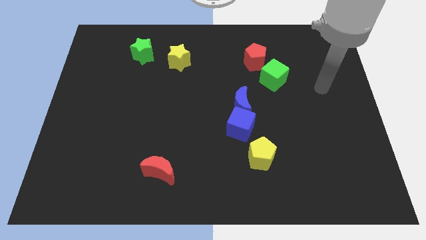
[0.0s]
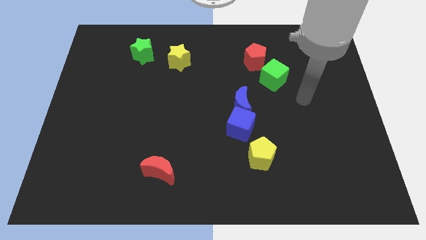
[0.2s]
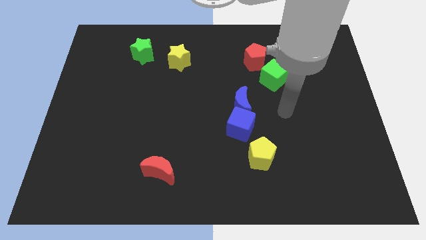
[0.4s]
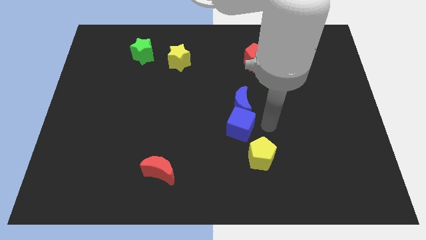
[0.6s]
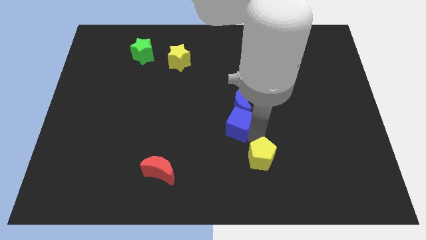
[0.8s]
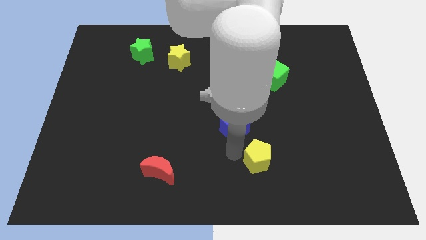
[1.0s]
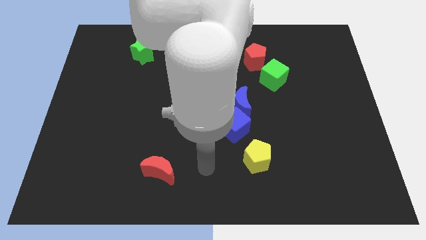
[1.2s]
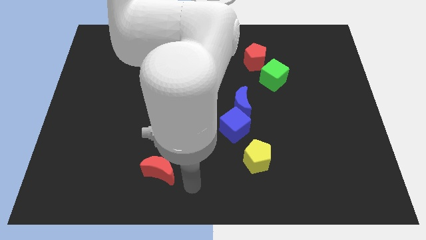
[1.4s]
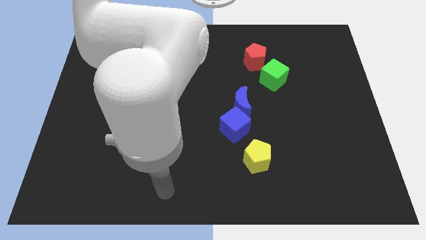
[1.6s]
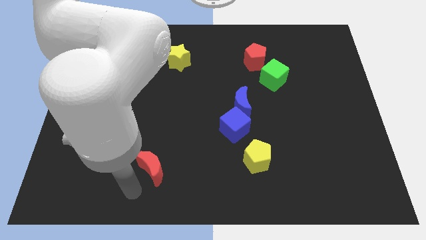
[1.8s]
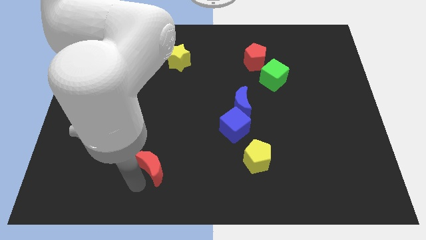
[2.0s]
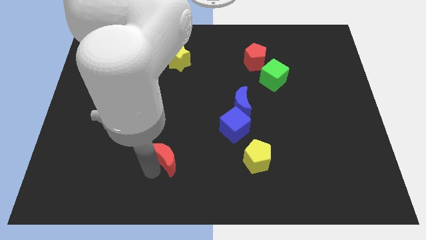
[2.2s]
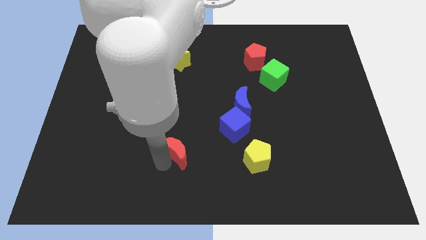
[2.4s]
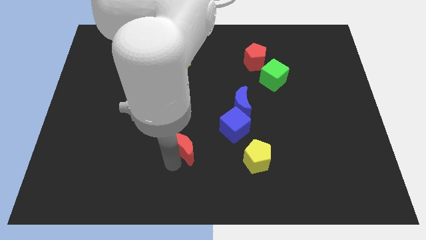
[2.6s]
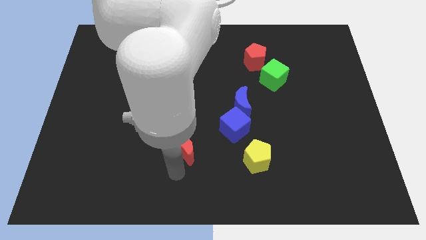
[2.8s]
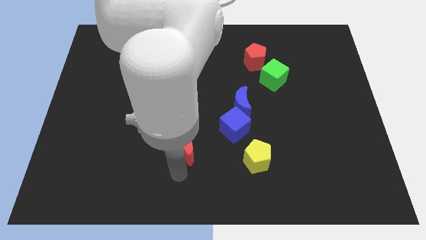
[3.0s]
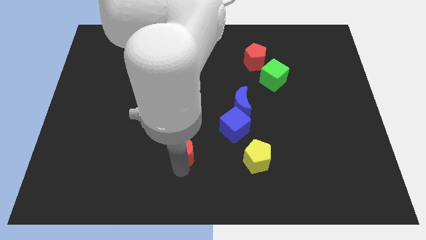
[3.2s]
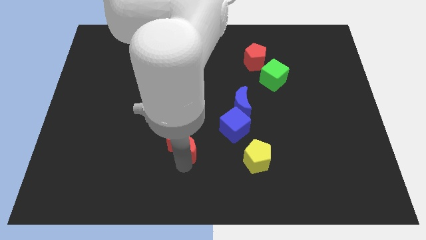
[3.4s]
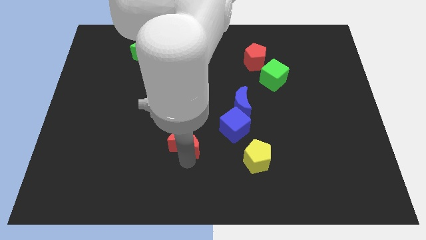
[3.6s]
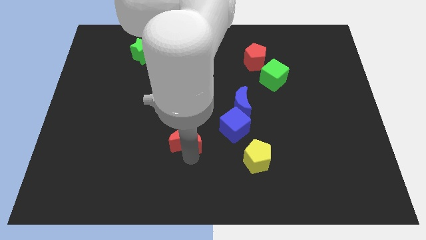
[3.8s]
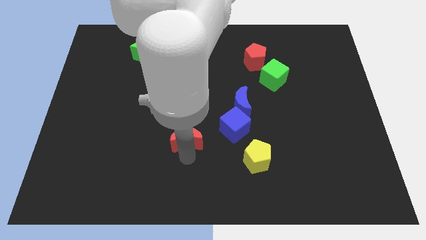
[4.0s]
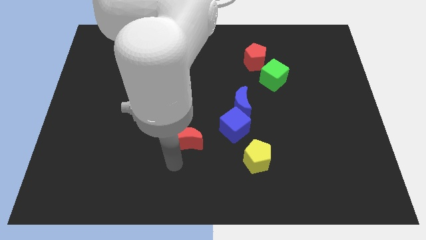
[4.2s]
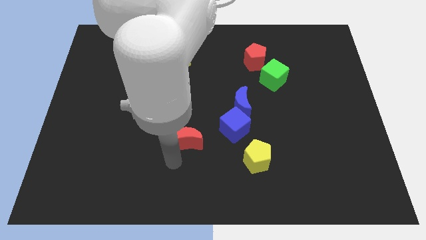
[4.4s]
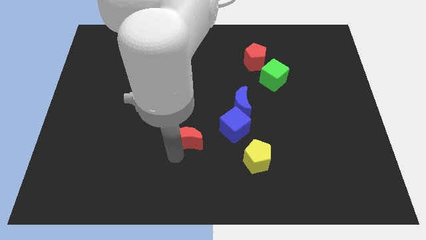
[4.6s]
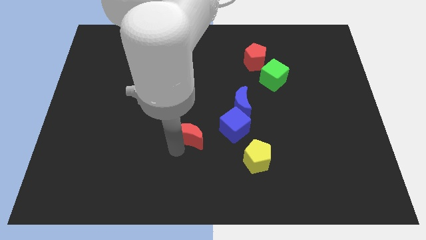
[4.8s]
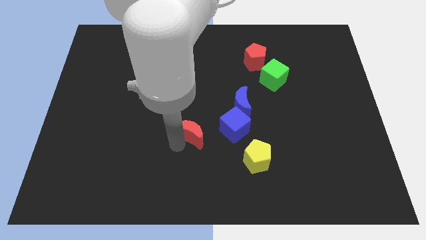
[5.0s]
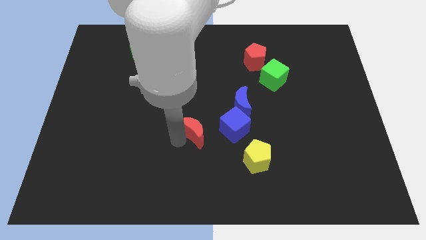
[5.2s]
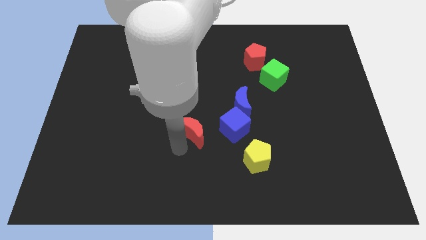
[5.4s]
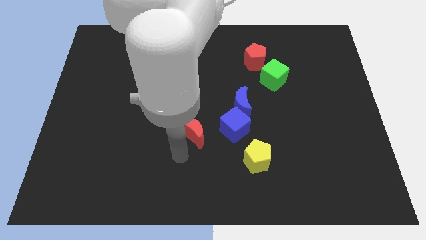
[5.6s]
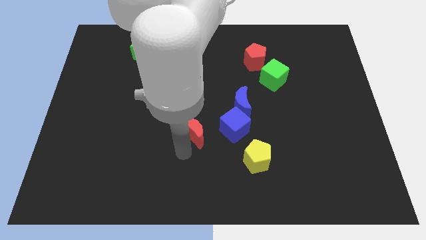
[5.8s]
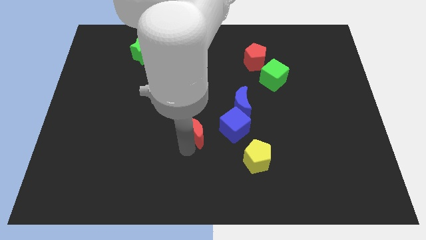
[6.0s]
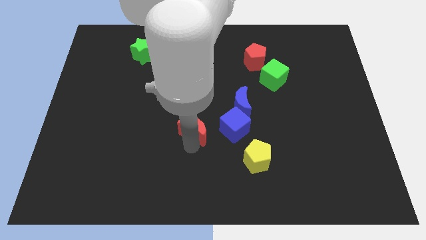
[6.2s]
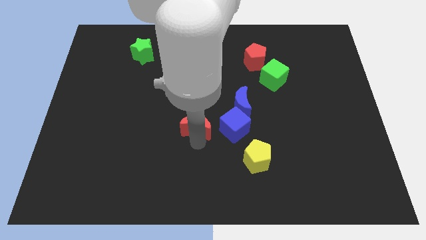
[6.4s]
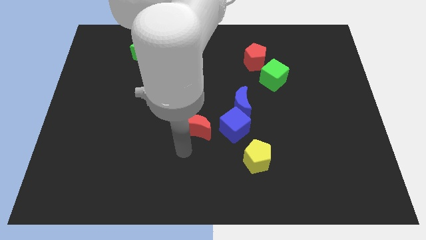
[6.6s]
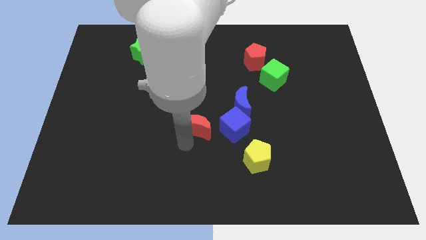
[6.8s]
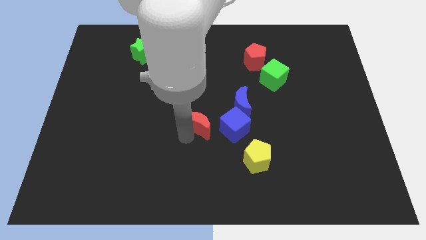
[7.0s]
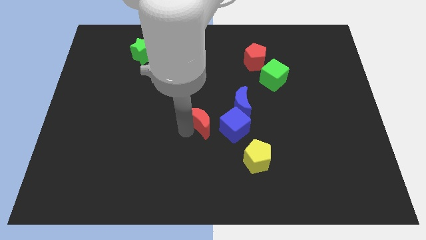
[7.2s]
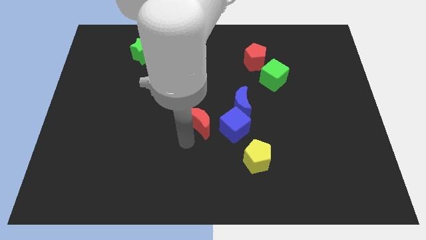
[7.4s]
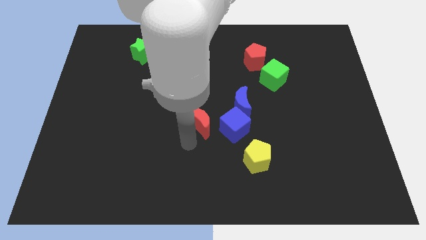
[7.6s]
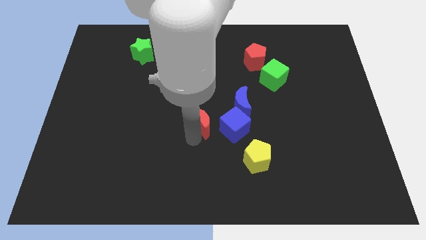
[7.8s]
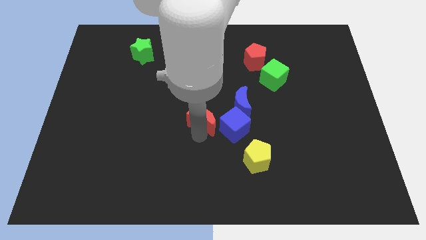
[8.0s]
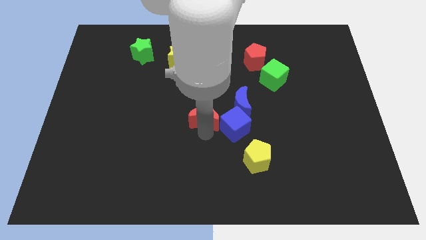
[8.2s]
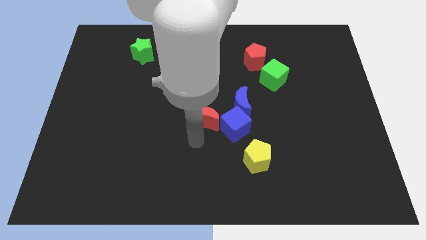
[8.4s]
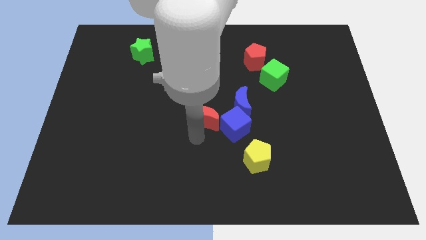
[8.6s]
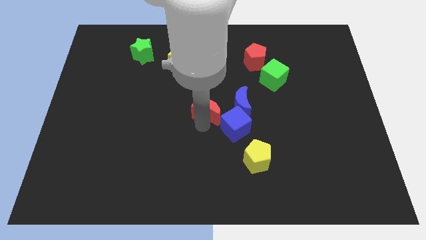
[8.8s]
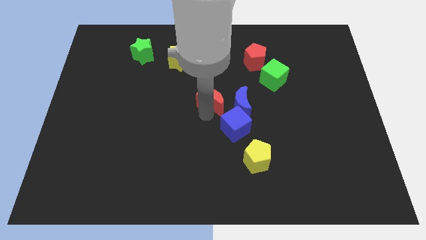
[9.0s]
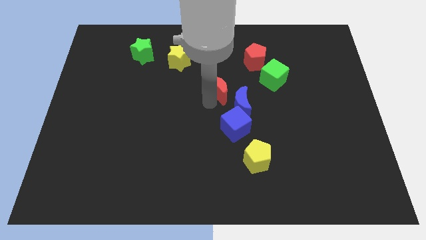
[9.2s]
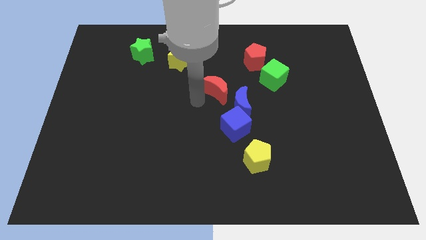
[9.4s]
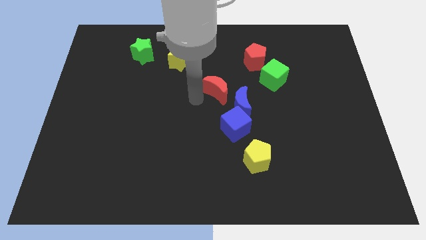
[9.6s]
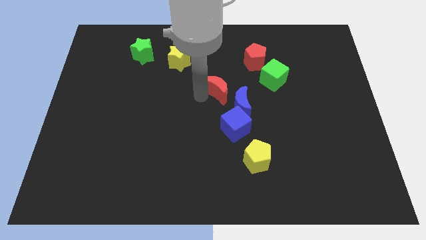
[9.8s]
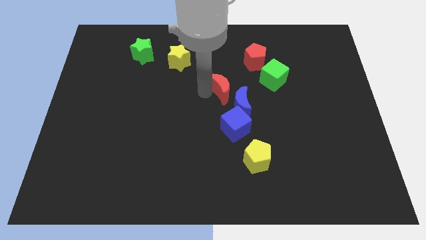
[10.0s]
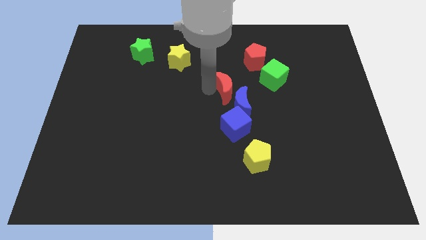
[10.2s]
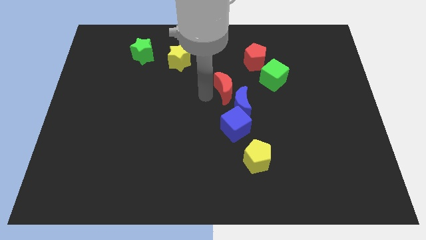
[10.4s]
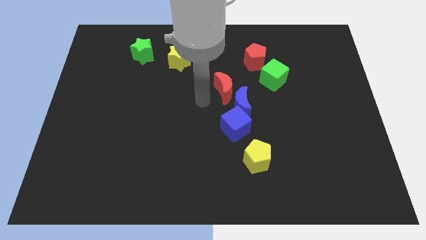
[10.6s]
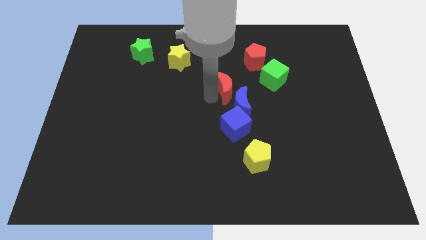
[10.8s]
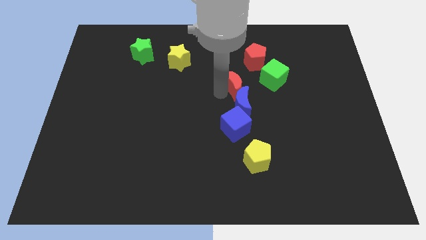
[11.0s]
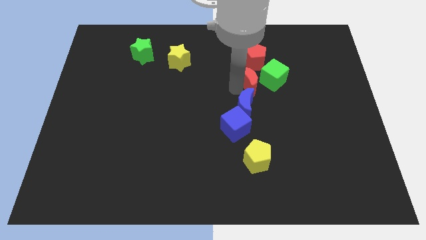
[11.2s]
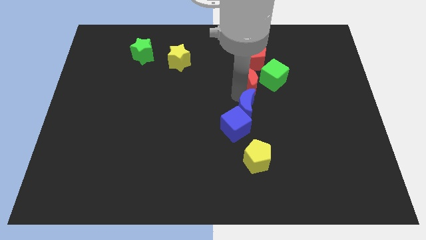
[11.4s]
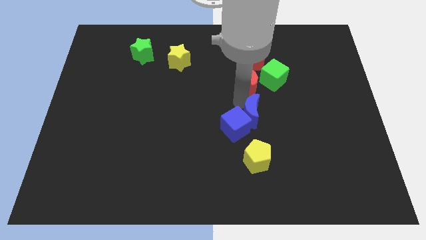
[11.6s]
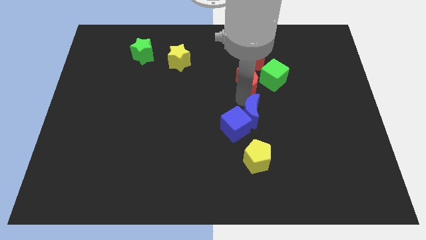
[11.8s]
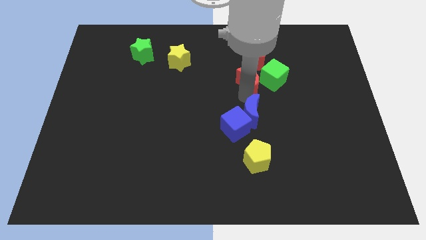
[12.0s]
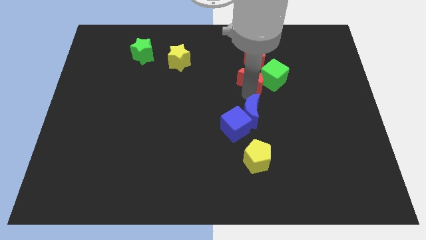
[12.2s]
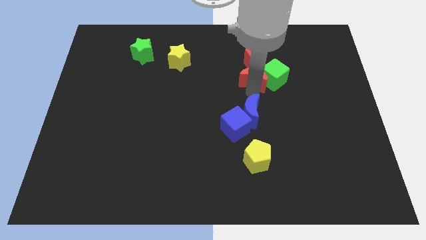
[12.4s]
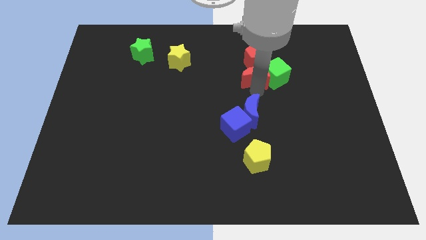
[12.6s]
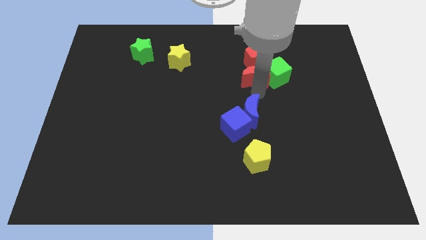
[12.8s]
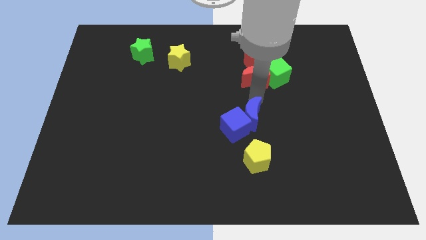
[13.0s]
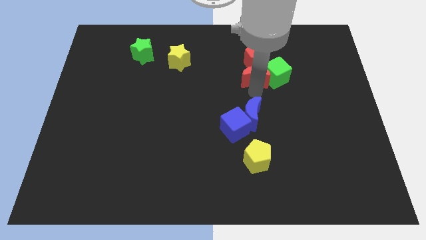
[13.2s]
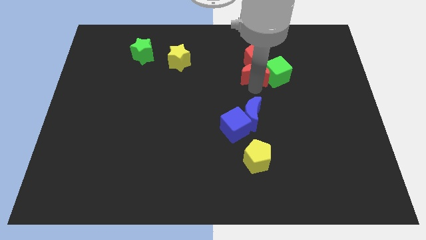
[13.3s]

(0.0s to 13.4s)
put the red moon towards the red pentagon

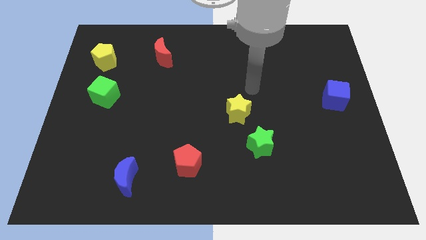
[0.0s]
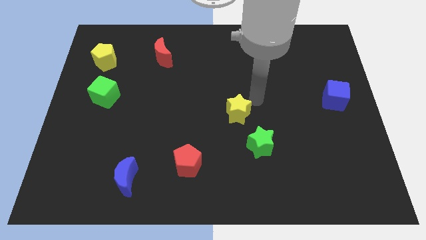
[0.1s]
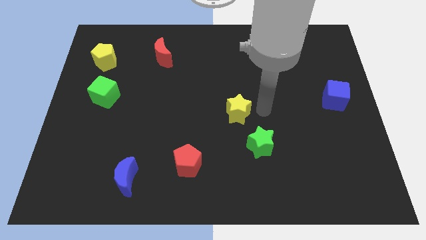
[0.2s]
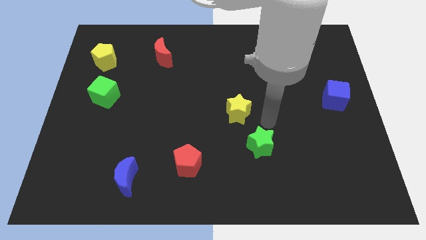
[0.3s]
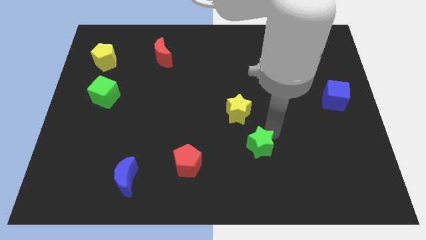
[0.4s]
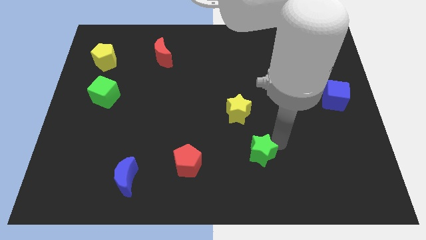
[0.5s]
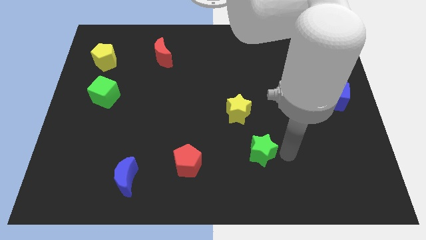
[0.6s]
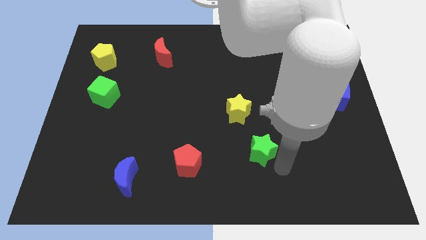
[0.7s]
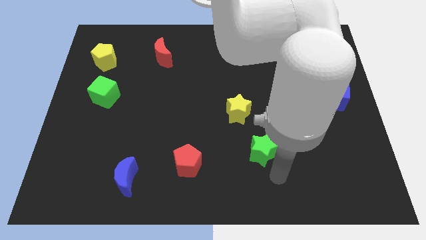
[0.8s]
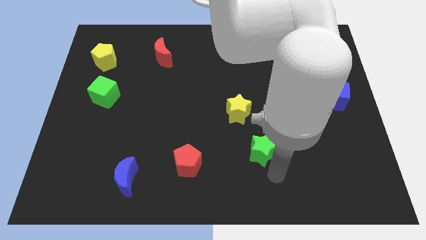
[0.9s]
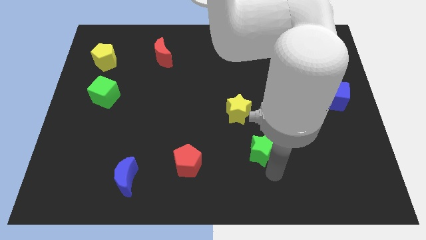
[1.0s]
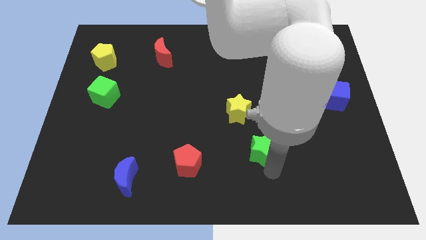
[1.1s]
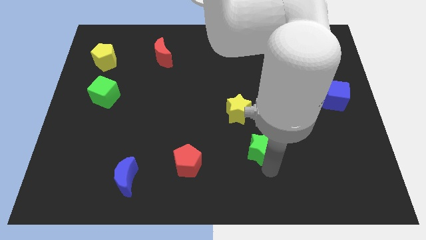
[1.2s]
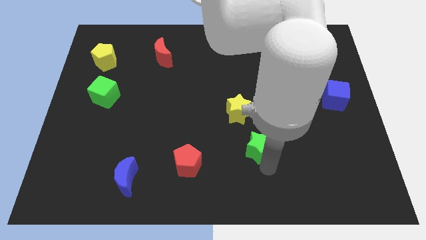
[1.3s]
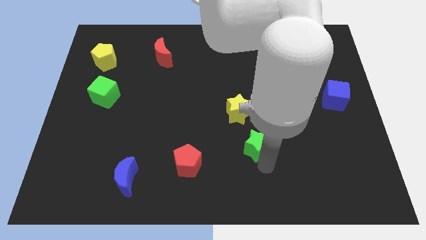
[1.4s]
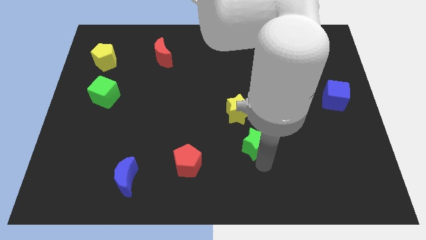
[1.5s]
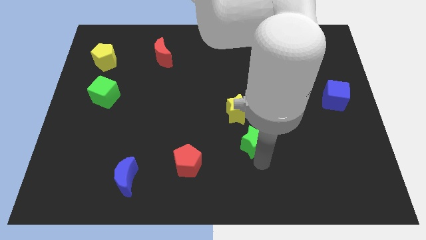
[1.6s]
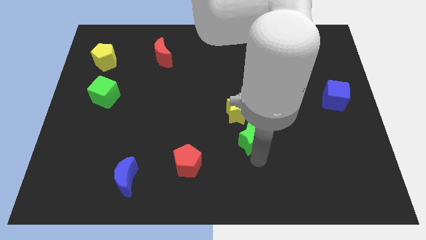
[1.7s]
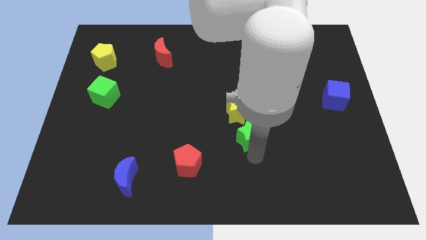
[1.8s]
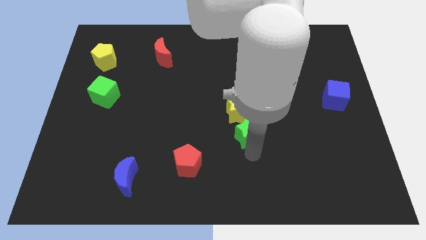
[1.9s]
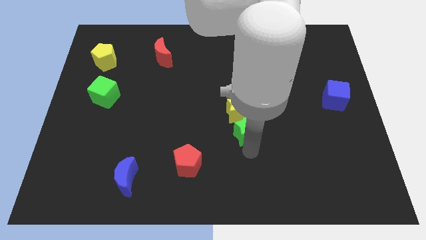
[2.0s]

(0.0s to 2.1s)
move the green star to the yellow star
